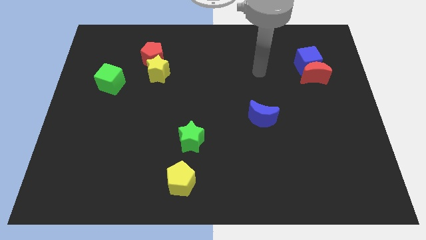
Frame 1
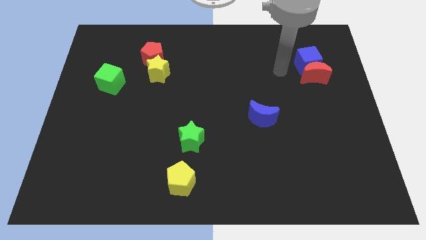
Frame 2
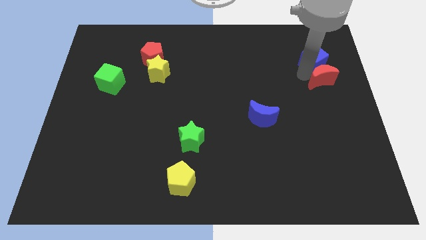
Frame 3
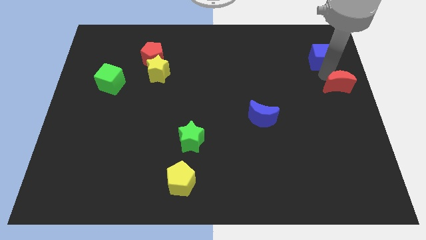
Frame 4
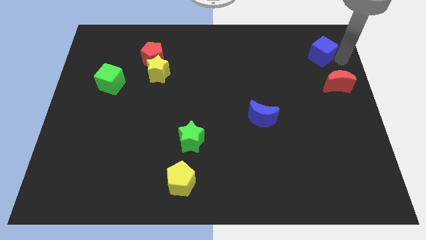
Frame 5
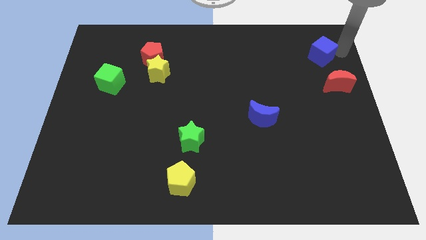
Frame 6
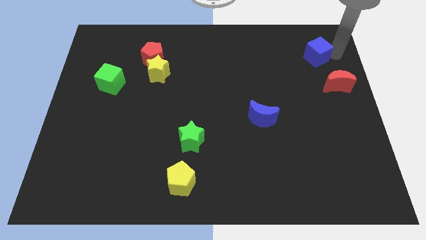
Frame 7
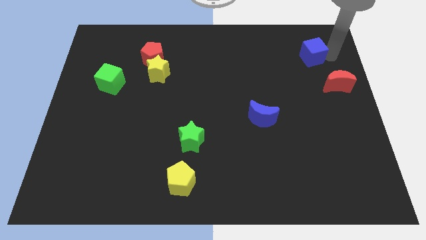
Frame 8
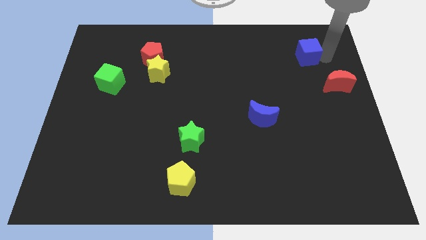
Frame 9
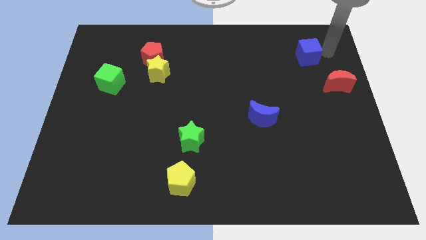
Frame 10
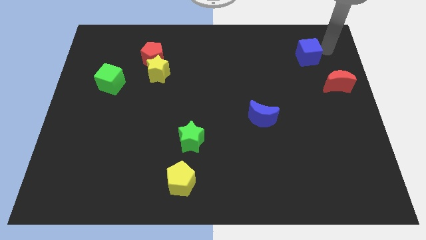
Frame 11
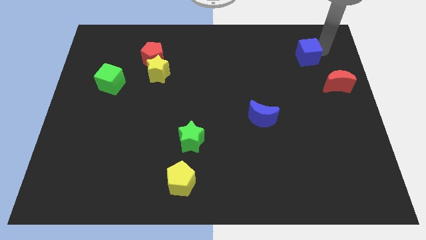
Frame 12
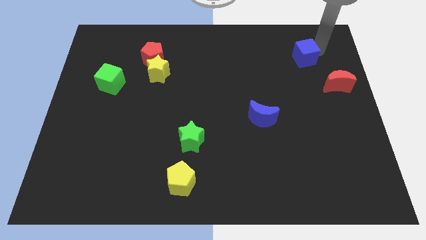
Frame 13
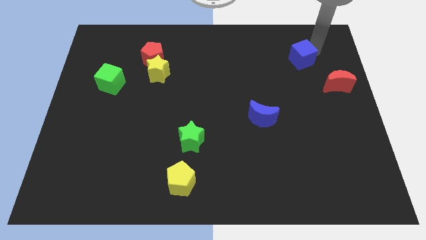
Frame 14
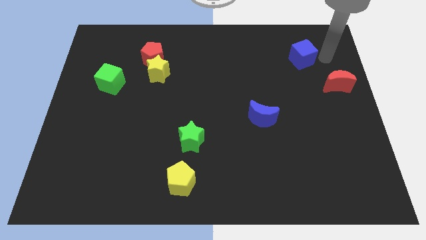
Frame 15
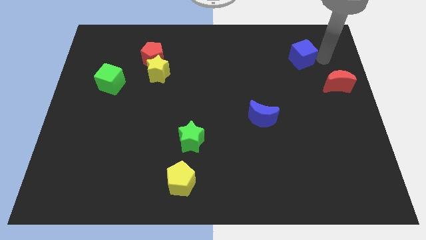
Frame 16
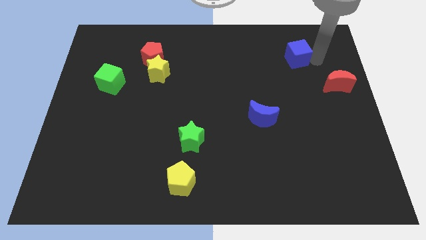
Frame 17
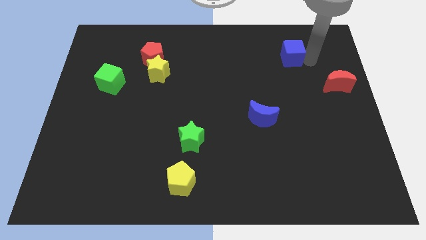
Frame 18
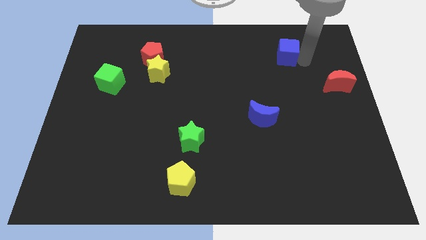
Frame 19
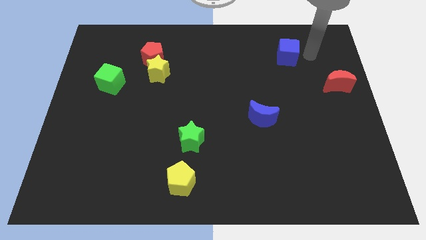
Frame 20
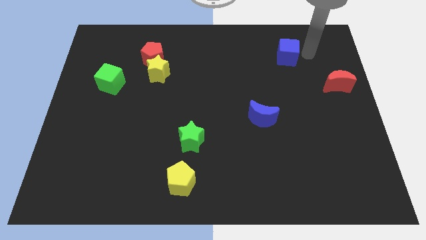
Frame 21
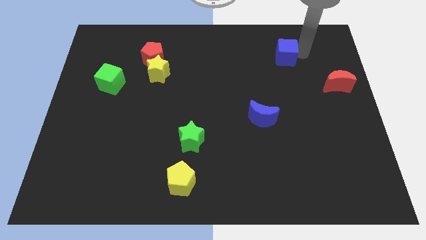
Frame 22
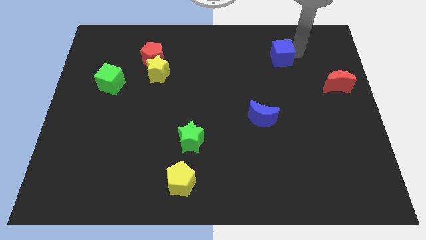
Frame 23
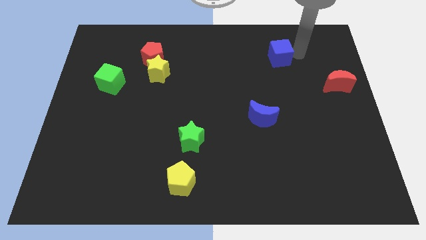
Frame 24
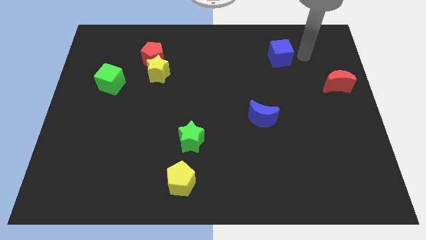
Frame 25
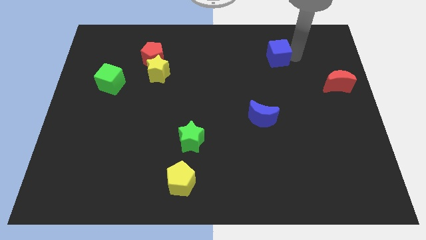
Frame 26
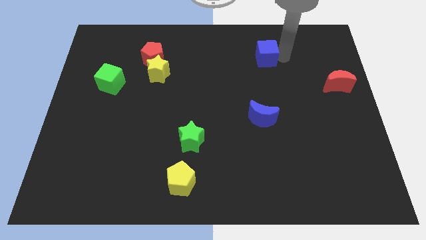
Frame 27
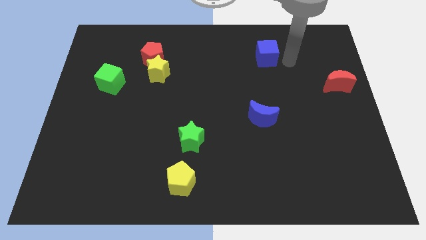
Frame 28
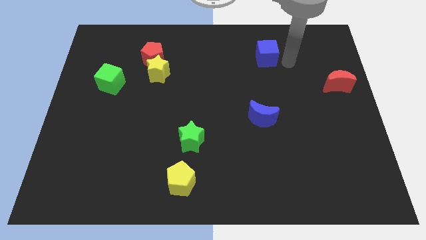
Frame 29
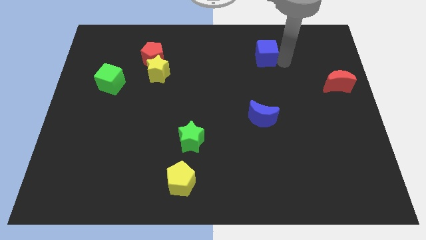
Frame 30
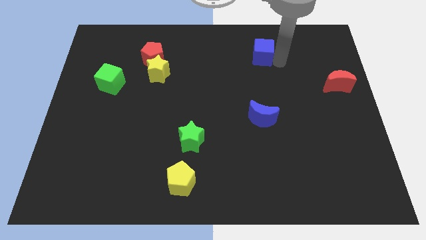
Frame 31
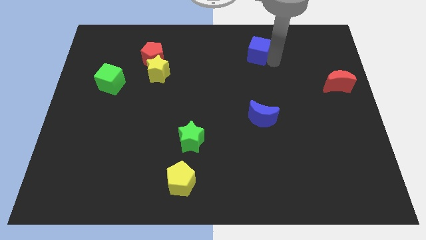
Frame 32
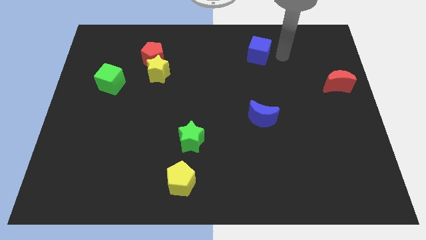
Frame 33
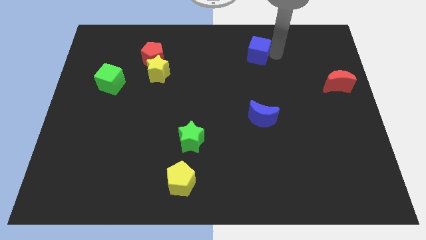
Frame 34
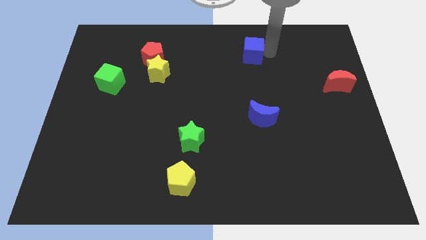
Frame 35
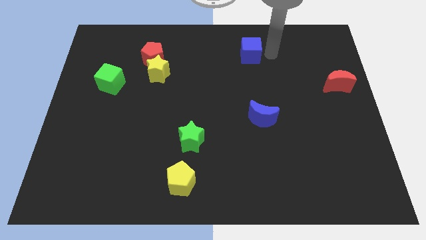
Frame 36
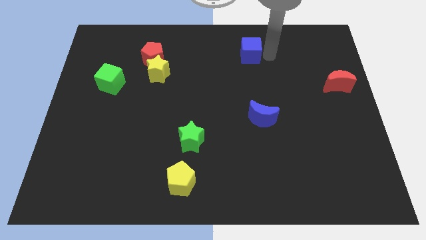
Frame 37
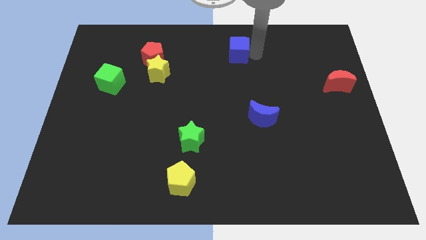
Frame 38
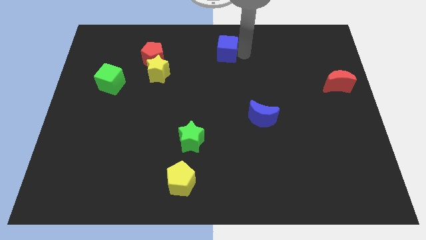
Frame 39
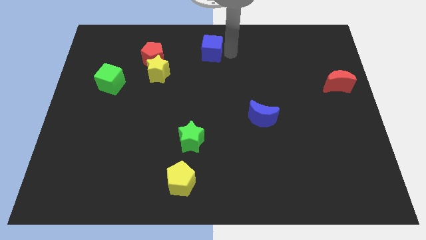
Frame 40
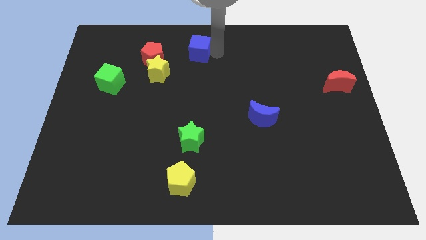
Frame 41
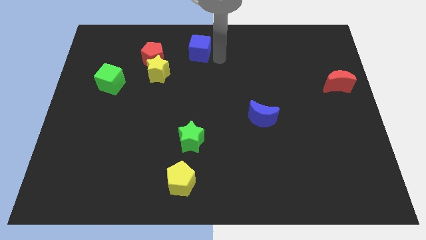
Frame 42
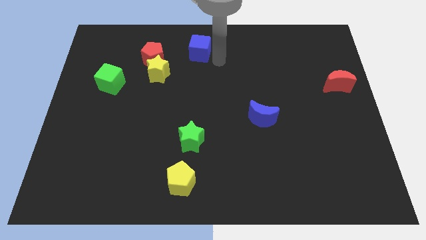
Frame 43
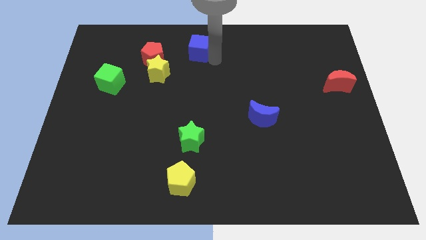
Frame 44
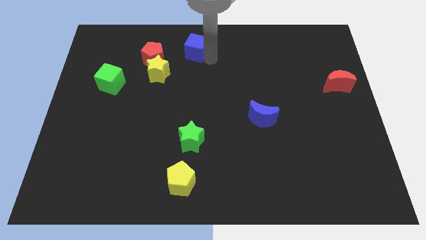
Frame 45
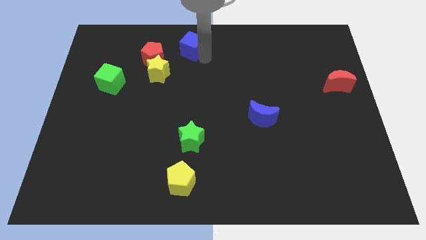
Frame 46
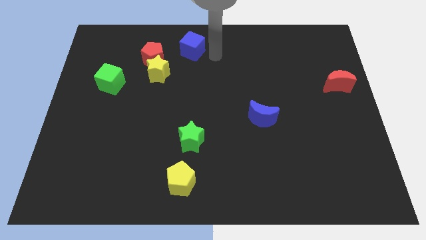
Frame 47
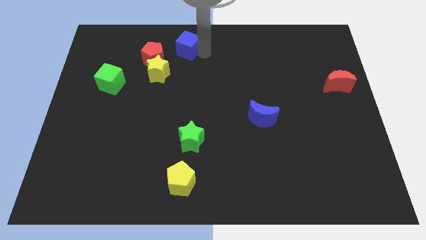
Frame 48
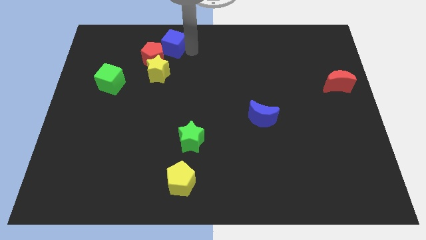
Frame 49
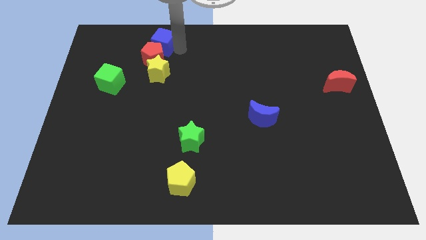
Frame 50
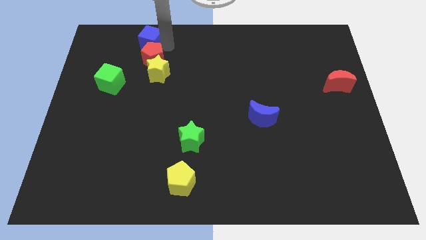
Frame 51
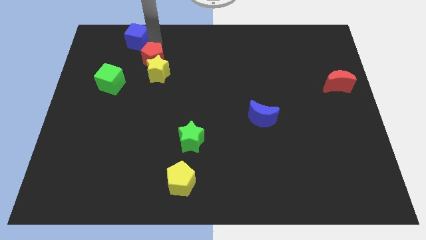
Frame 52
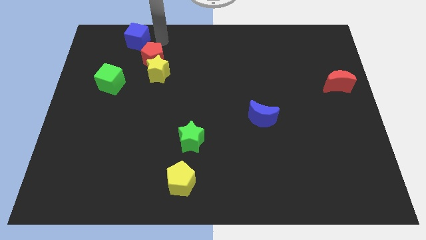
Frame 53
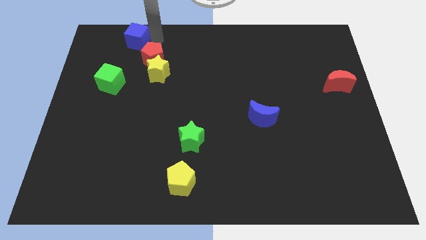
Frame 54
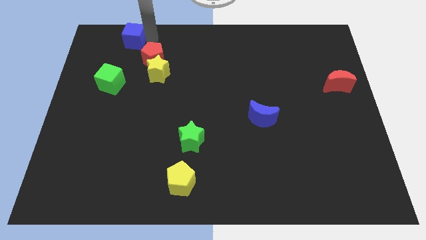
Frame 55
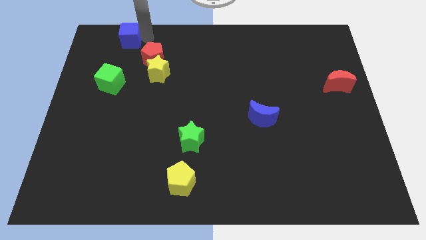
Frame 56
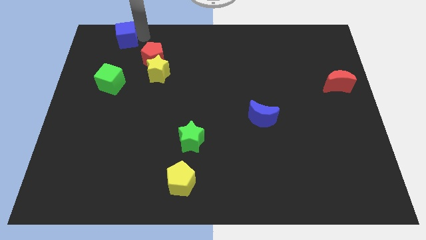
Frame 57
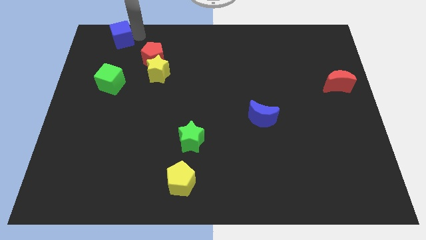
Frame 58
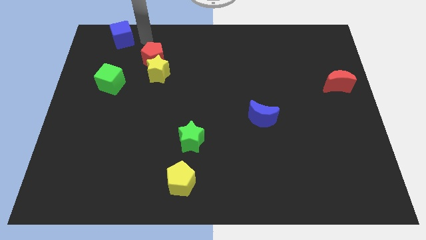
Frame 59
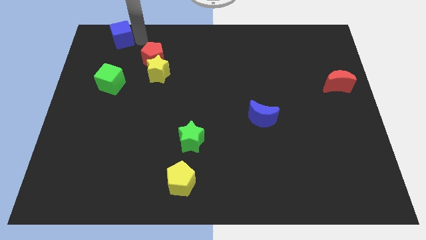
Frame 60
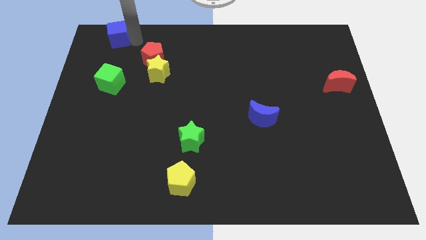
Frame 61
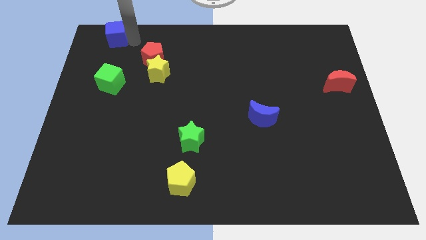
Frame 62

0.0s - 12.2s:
put the blue cube to the top left of the board

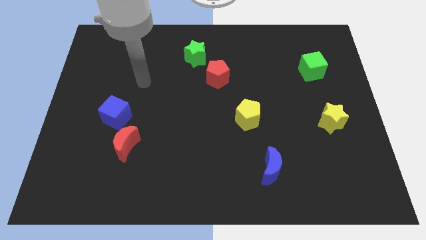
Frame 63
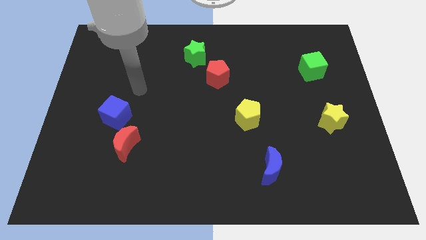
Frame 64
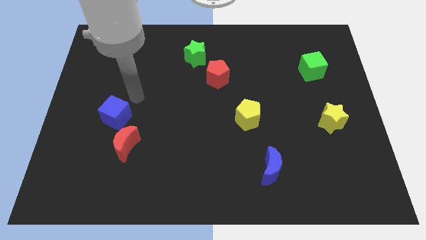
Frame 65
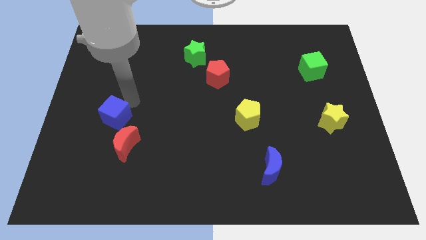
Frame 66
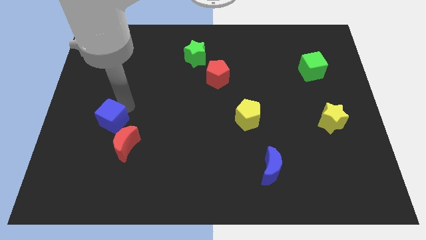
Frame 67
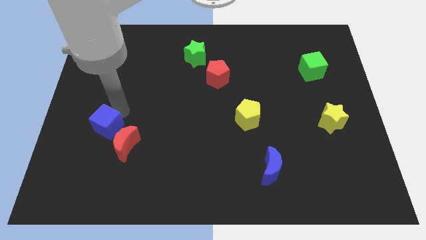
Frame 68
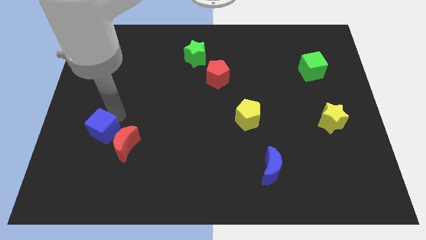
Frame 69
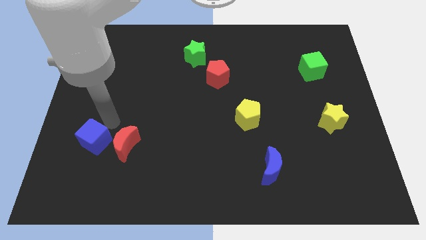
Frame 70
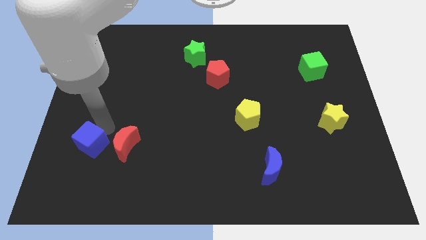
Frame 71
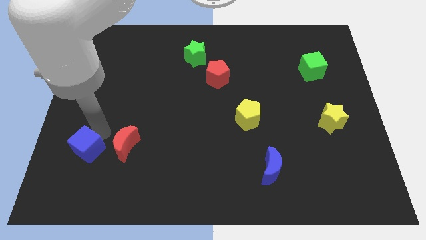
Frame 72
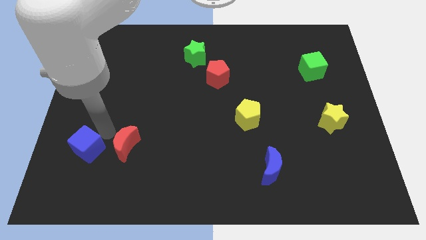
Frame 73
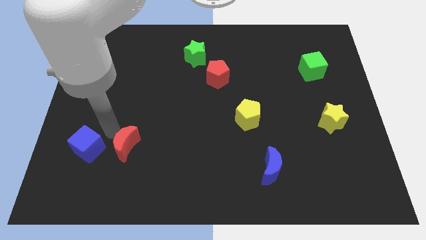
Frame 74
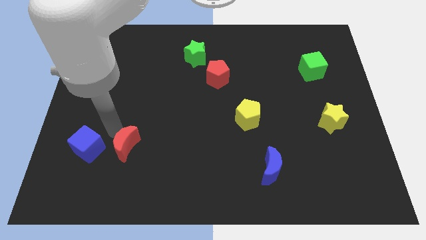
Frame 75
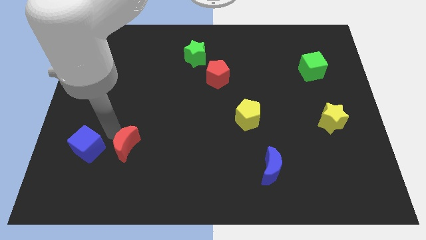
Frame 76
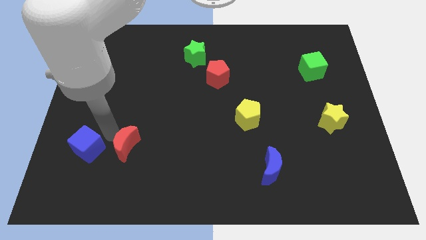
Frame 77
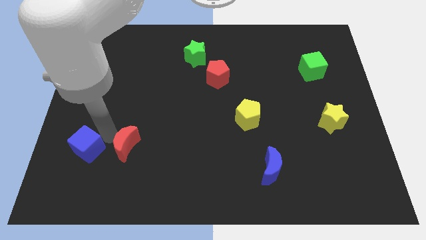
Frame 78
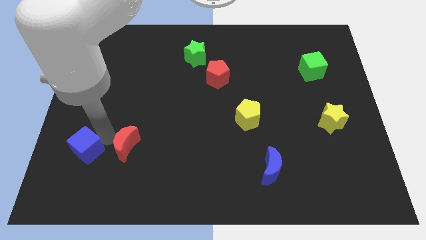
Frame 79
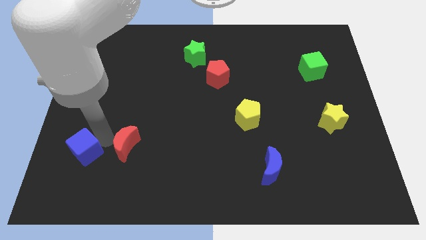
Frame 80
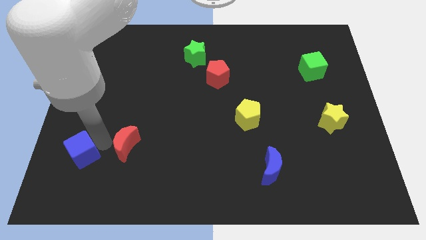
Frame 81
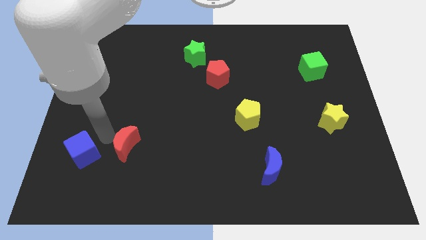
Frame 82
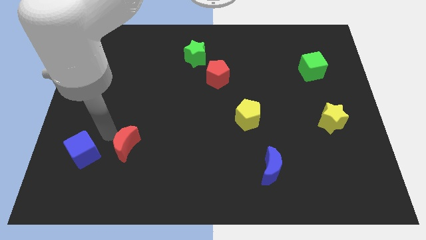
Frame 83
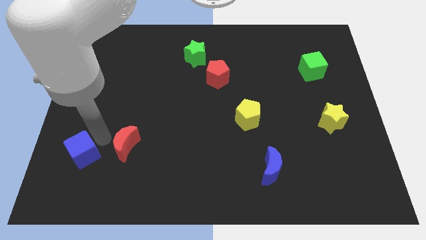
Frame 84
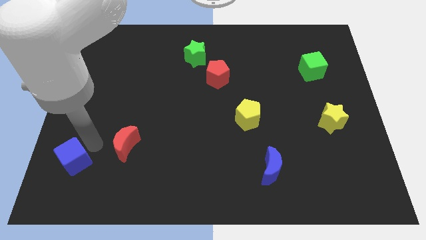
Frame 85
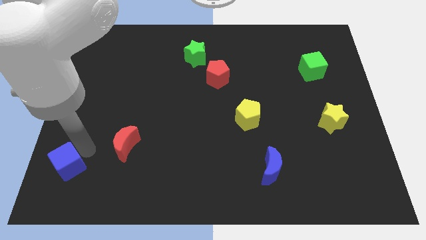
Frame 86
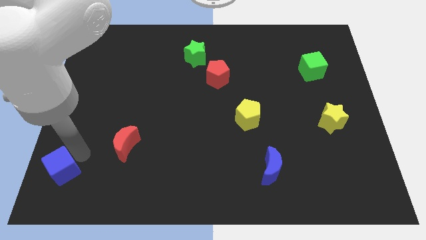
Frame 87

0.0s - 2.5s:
put the blue cube to the bottom left of the board
